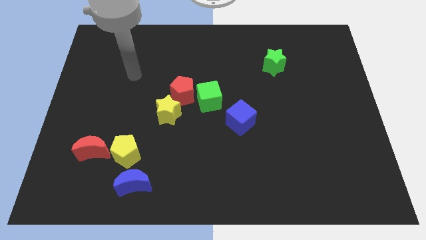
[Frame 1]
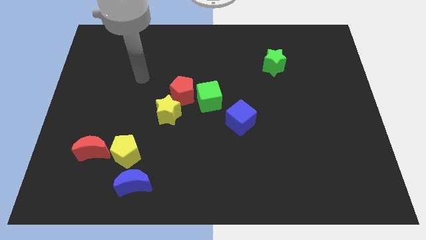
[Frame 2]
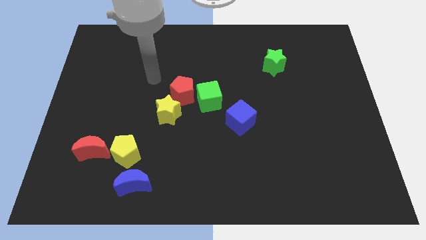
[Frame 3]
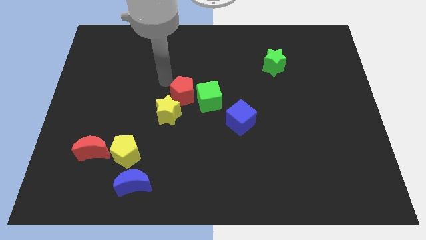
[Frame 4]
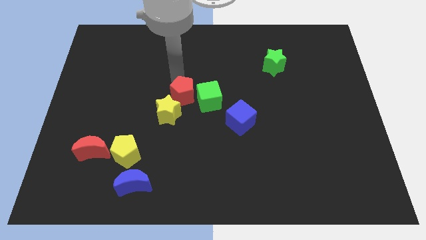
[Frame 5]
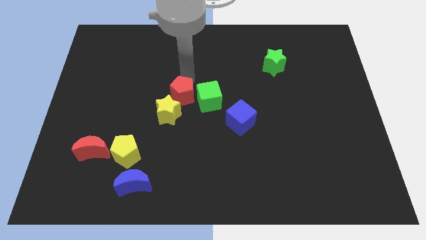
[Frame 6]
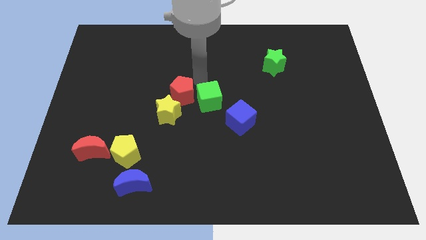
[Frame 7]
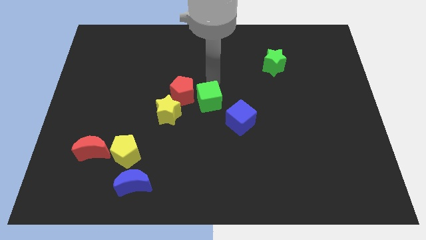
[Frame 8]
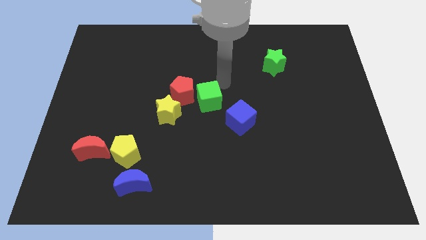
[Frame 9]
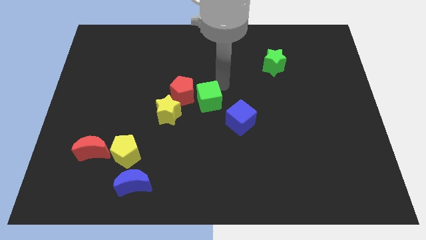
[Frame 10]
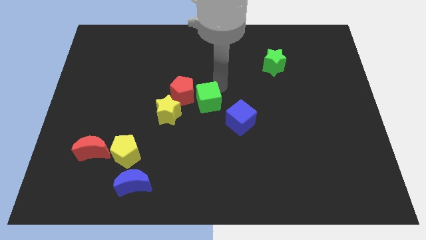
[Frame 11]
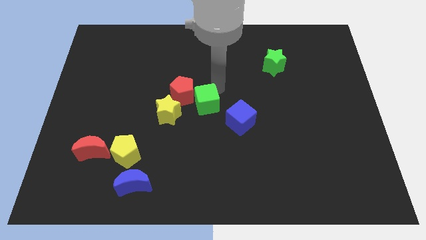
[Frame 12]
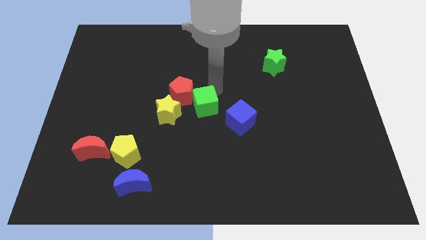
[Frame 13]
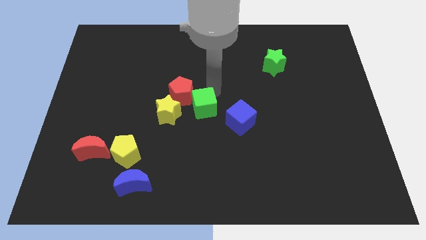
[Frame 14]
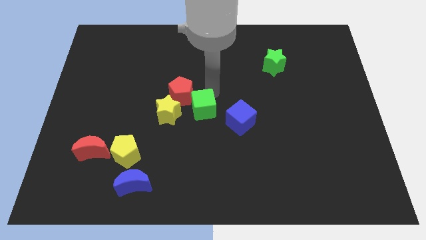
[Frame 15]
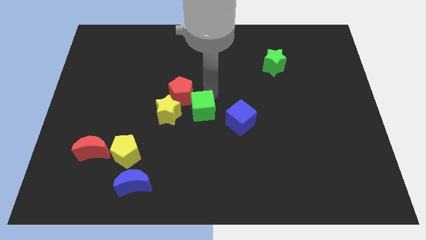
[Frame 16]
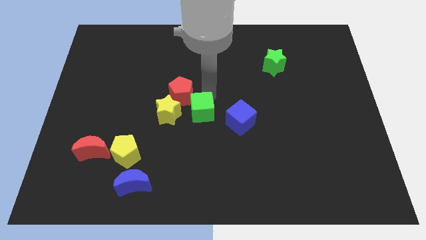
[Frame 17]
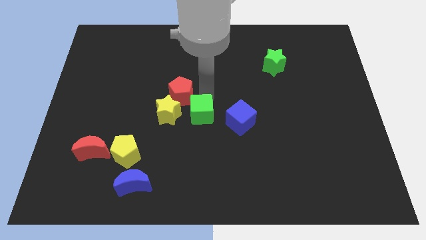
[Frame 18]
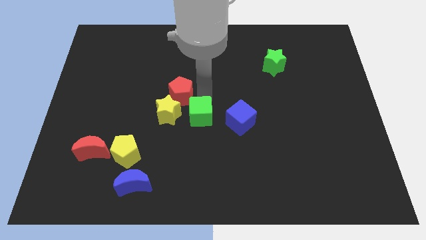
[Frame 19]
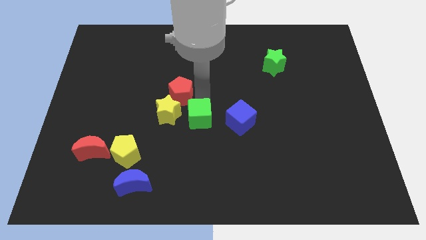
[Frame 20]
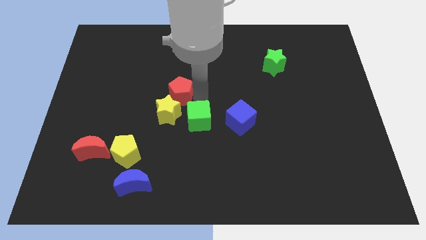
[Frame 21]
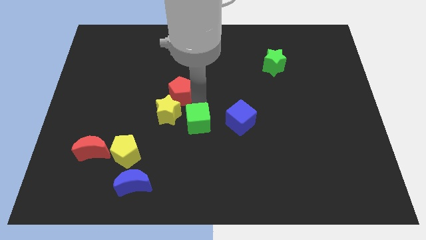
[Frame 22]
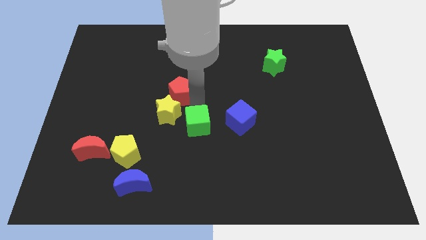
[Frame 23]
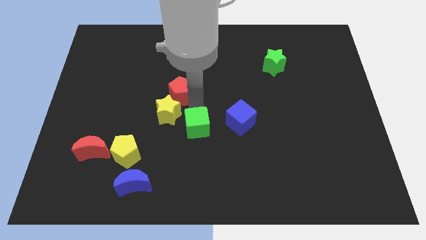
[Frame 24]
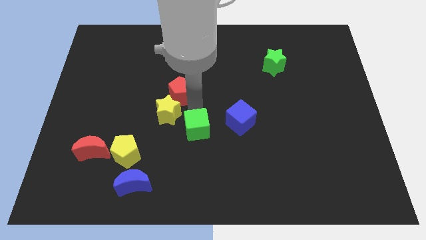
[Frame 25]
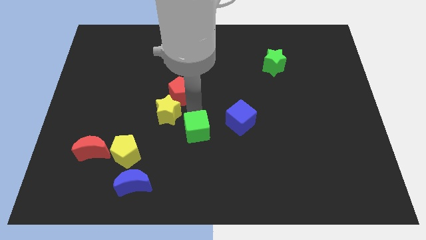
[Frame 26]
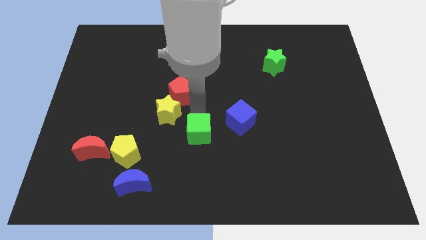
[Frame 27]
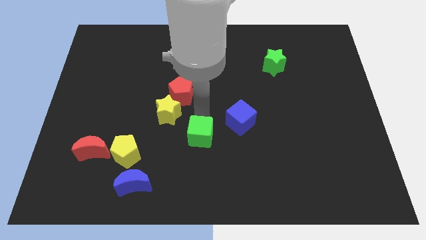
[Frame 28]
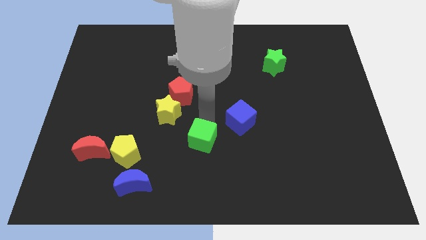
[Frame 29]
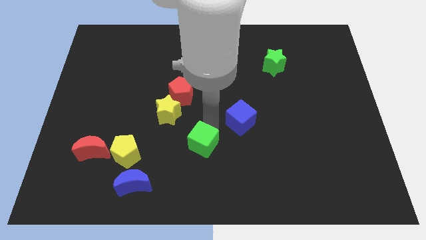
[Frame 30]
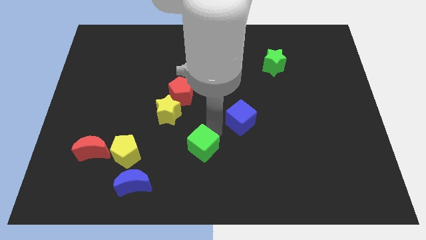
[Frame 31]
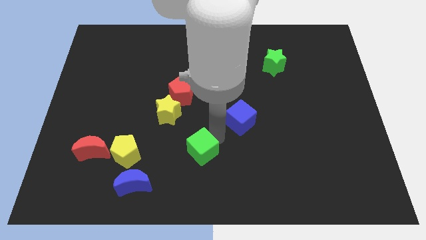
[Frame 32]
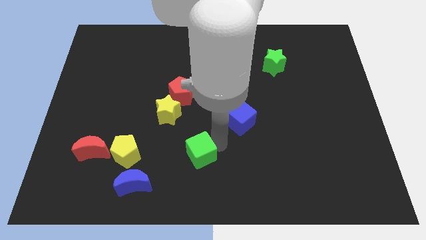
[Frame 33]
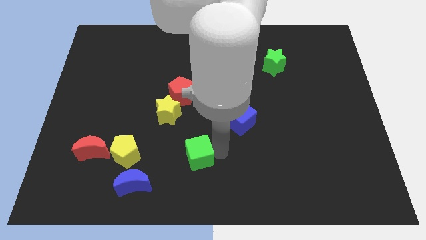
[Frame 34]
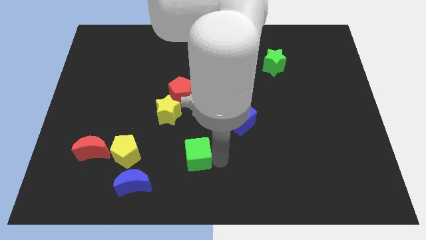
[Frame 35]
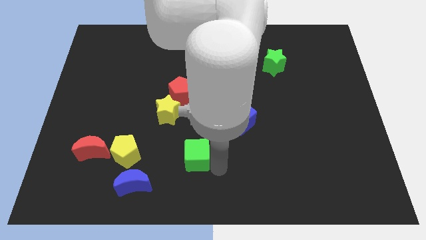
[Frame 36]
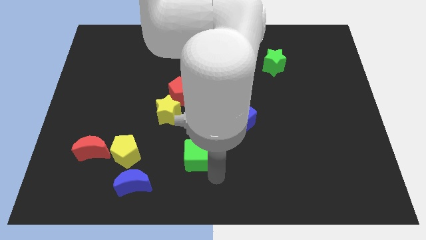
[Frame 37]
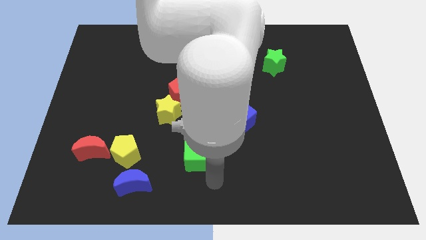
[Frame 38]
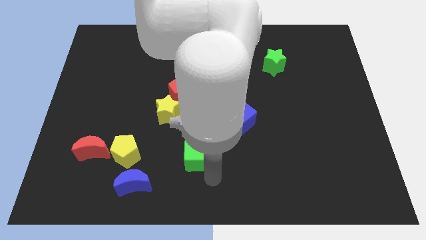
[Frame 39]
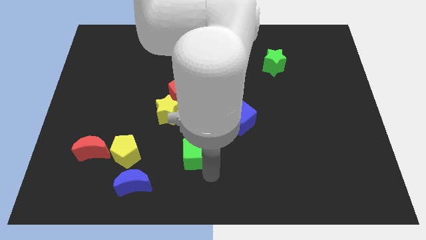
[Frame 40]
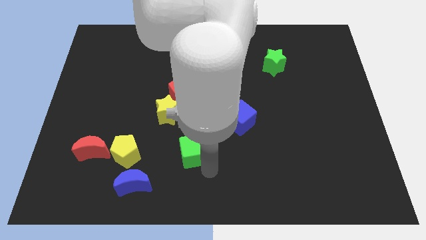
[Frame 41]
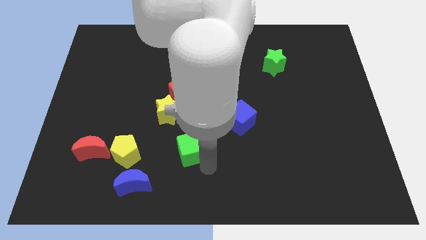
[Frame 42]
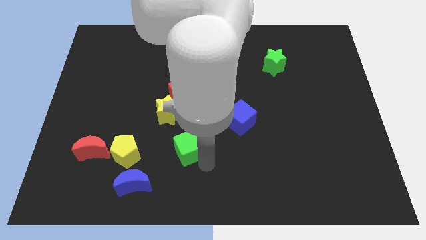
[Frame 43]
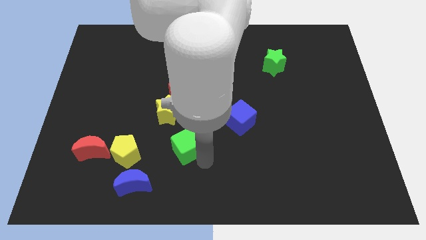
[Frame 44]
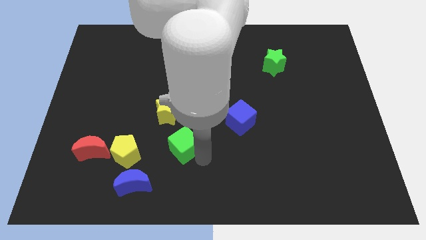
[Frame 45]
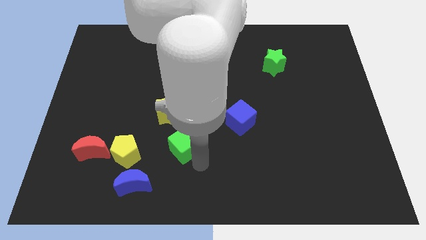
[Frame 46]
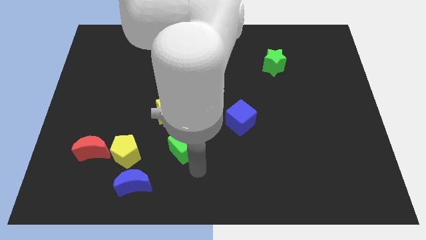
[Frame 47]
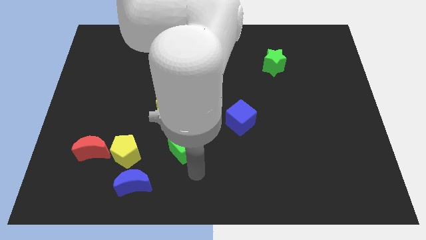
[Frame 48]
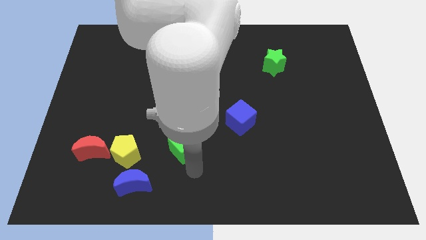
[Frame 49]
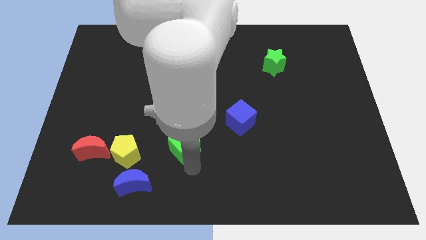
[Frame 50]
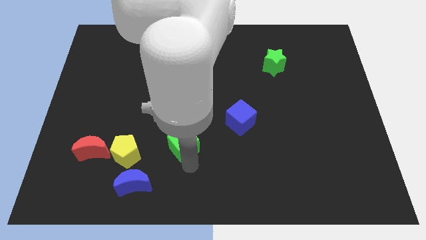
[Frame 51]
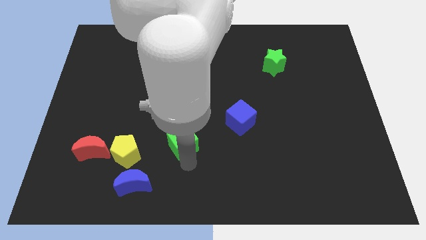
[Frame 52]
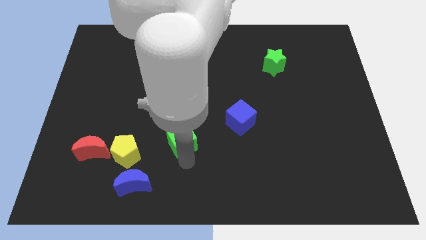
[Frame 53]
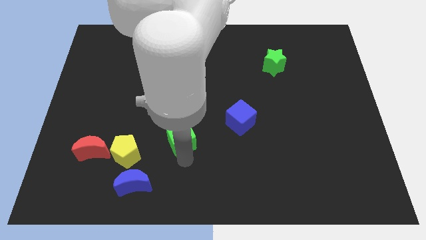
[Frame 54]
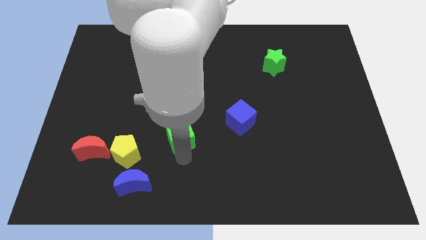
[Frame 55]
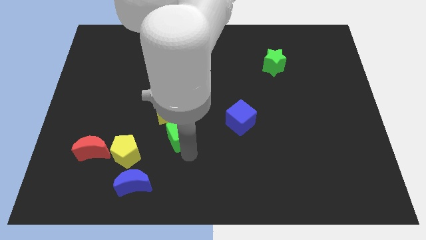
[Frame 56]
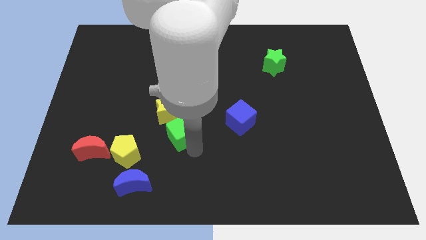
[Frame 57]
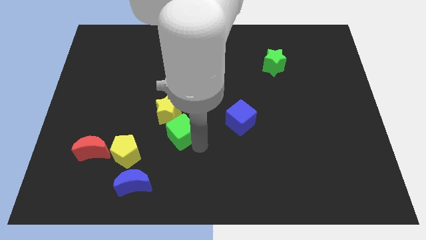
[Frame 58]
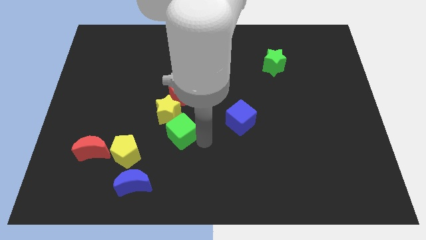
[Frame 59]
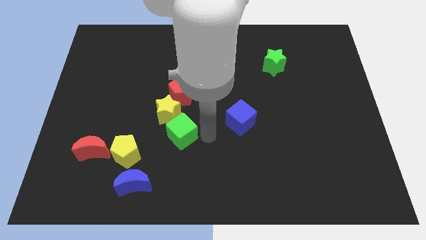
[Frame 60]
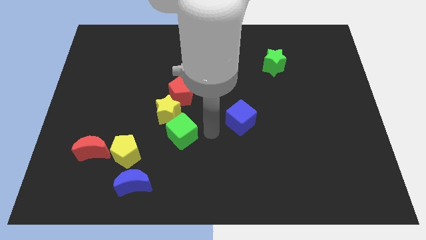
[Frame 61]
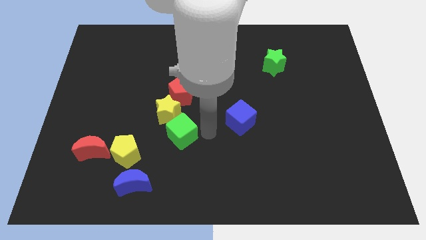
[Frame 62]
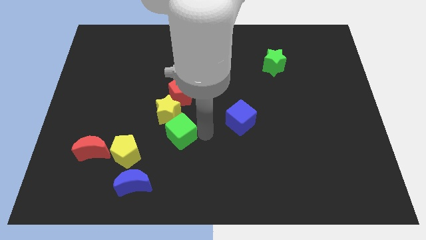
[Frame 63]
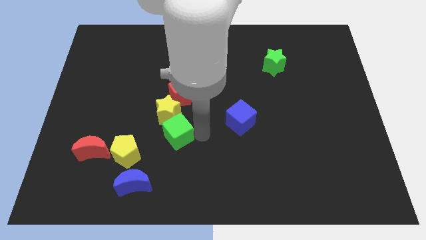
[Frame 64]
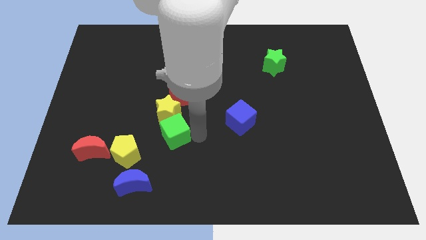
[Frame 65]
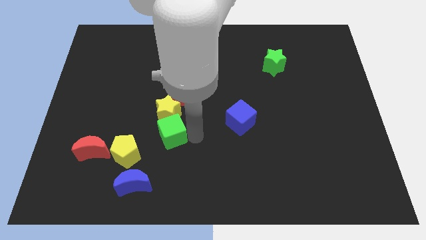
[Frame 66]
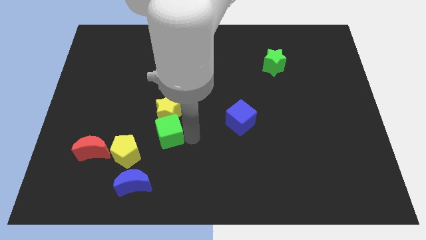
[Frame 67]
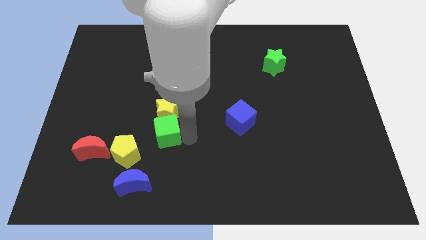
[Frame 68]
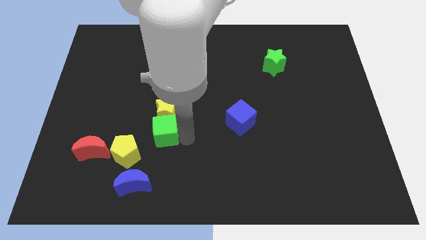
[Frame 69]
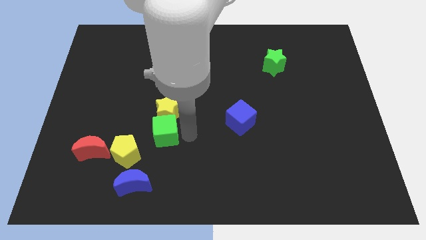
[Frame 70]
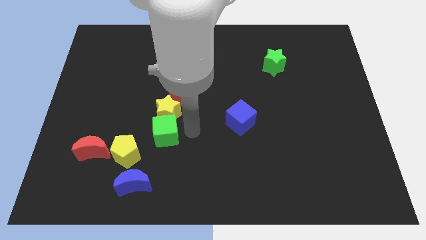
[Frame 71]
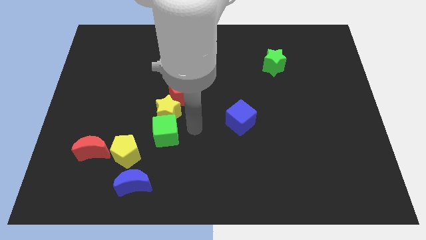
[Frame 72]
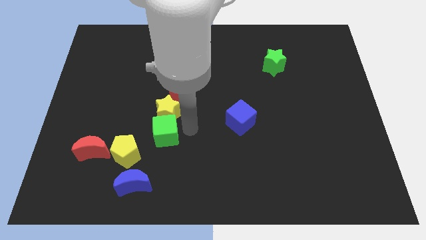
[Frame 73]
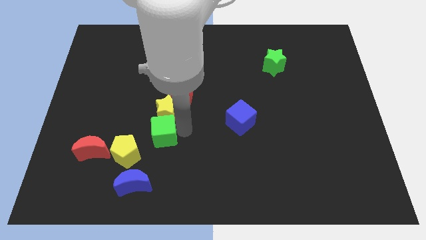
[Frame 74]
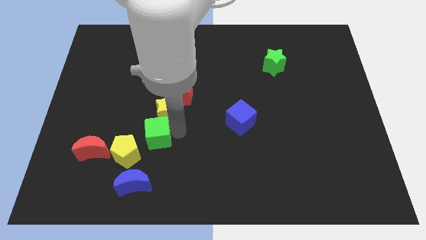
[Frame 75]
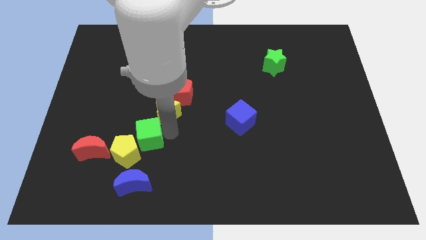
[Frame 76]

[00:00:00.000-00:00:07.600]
slide the green cube next to the yellow pentagon

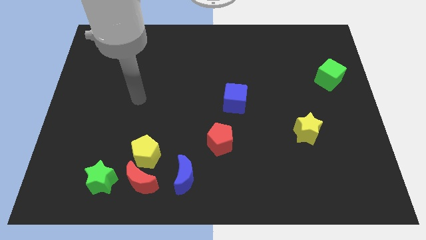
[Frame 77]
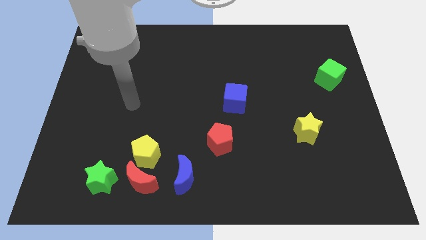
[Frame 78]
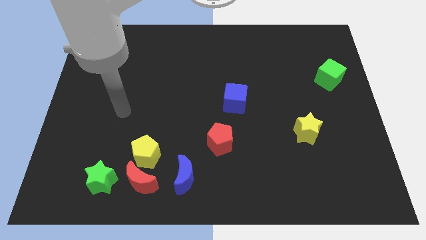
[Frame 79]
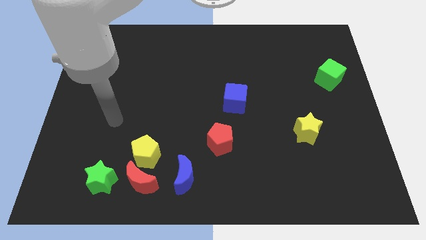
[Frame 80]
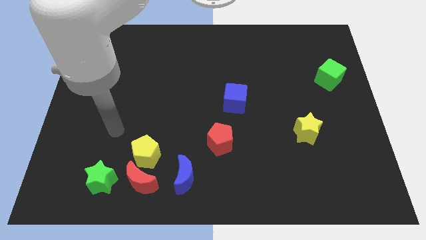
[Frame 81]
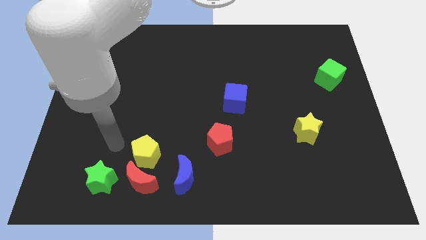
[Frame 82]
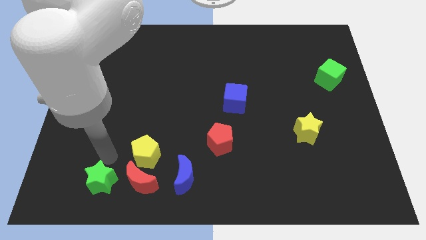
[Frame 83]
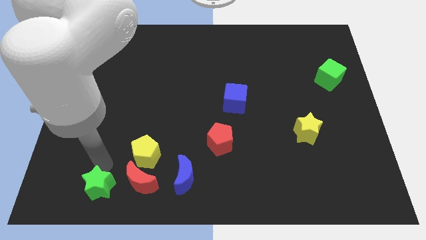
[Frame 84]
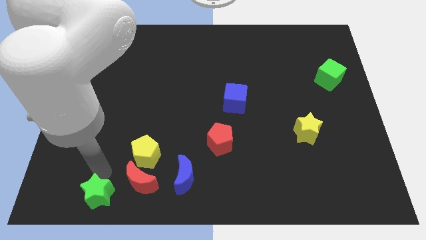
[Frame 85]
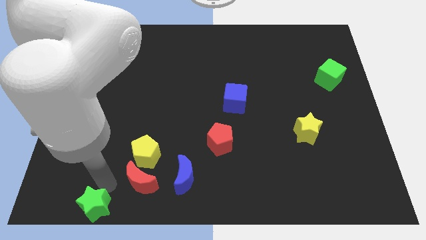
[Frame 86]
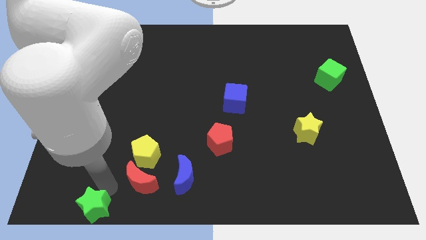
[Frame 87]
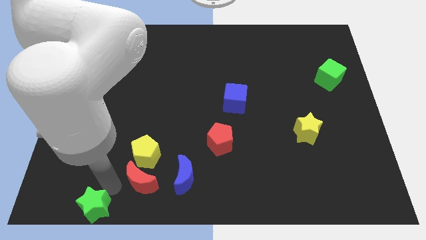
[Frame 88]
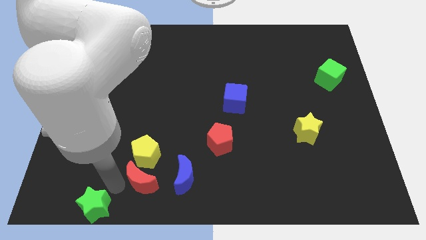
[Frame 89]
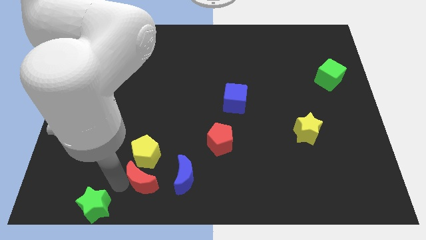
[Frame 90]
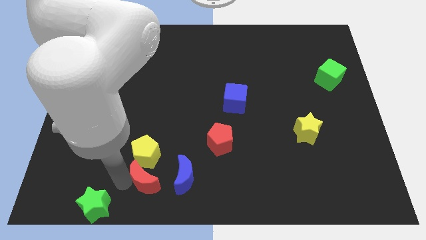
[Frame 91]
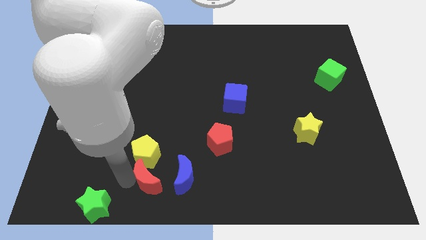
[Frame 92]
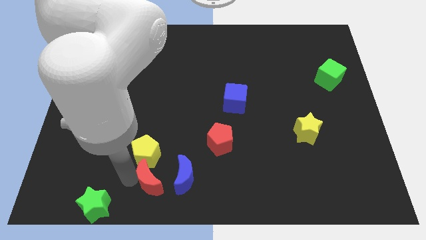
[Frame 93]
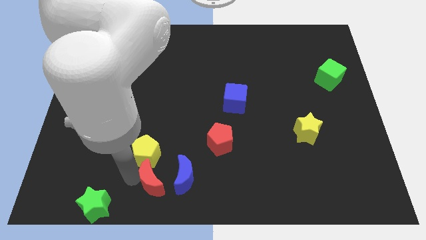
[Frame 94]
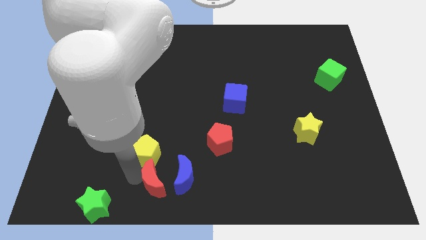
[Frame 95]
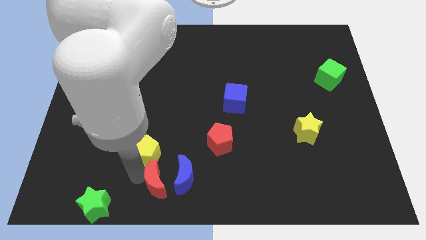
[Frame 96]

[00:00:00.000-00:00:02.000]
slide the red moon to the blue moon
